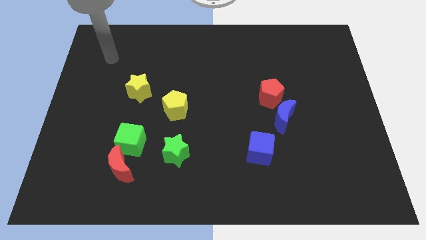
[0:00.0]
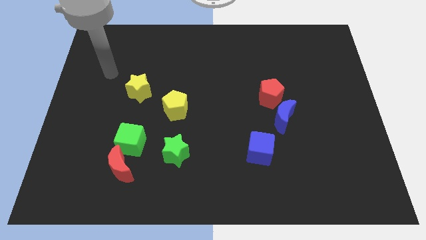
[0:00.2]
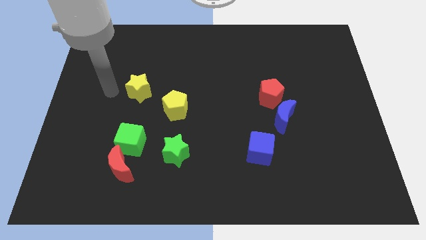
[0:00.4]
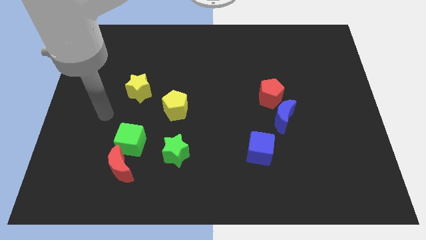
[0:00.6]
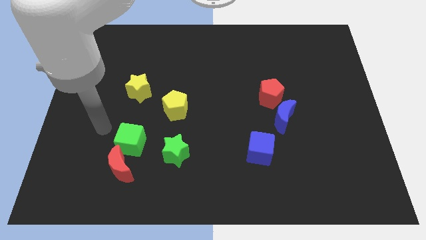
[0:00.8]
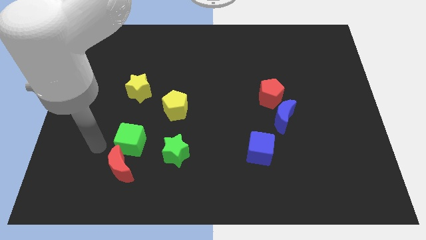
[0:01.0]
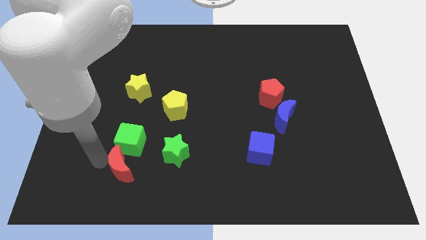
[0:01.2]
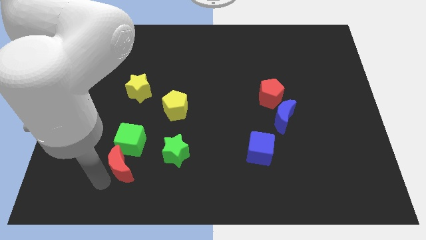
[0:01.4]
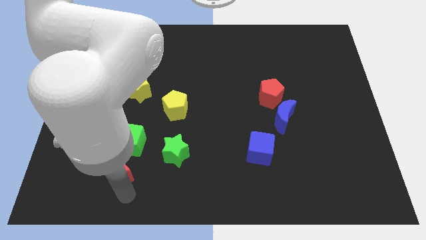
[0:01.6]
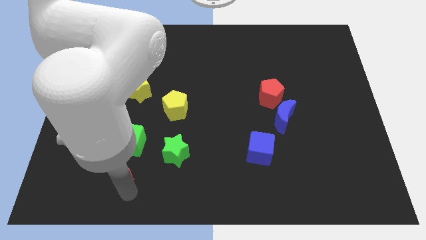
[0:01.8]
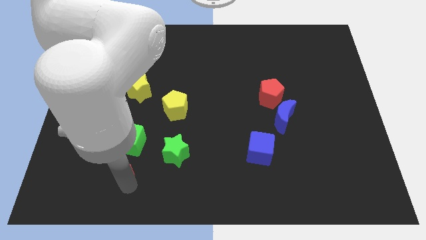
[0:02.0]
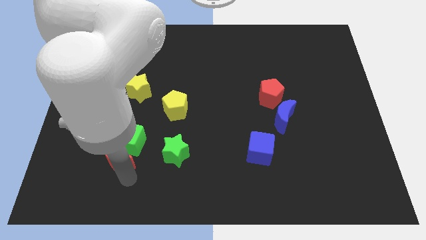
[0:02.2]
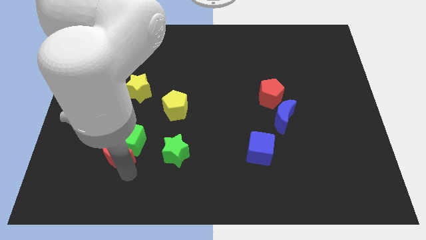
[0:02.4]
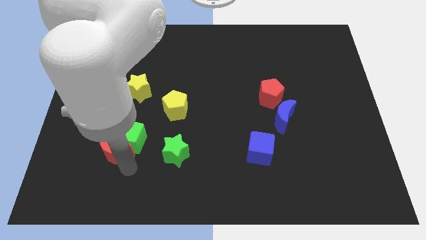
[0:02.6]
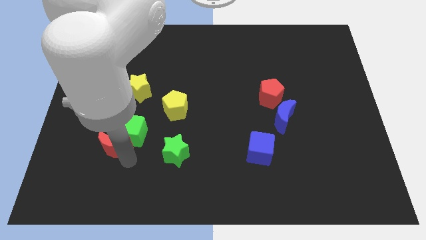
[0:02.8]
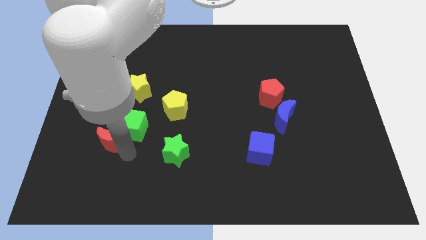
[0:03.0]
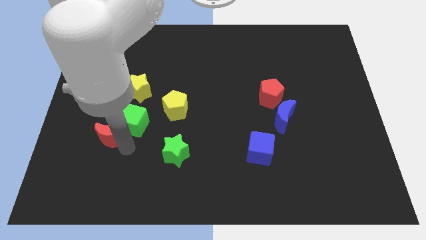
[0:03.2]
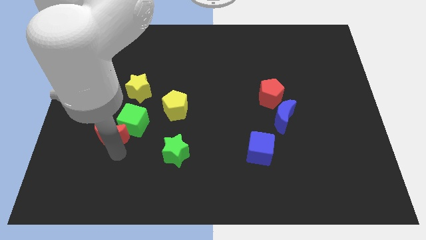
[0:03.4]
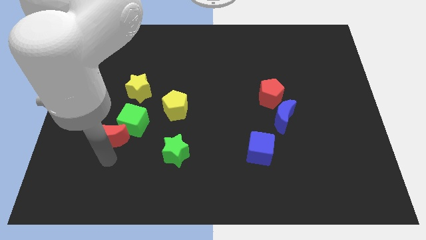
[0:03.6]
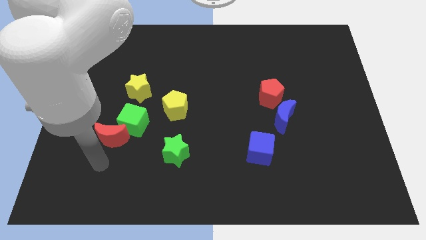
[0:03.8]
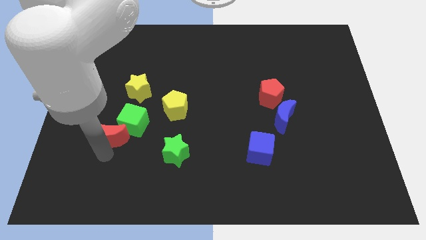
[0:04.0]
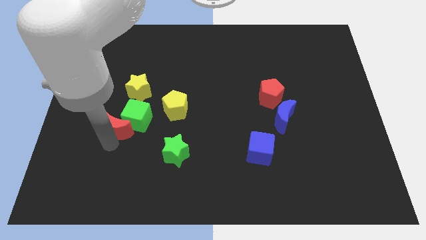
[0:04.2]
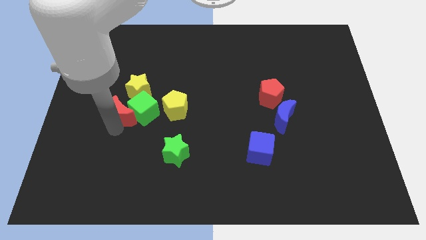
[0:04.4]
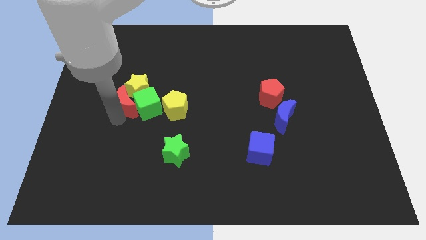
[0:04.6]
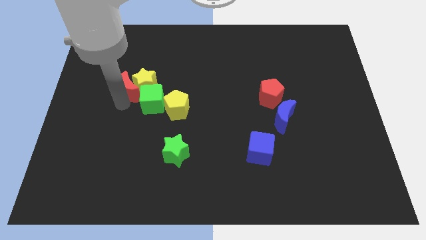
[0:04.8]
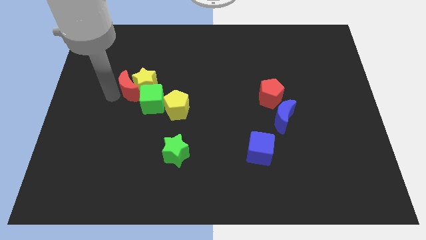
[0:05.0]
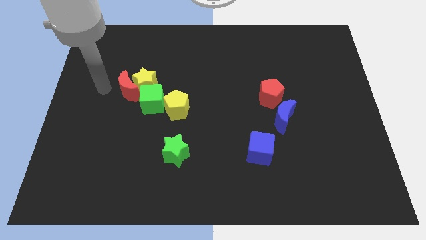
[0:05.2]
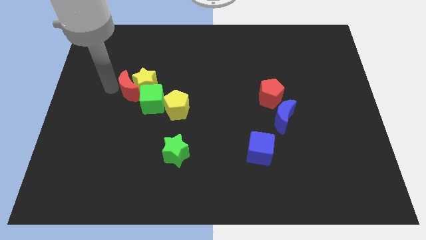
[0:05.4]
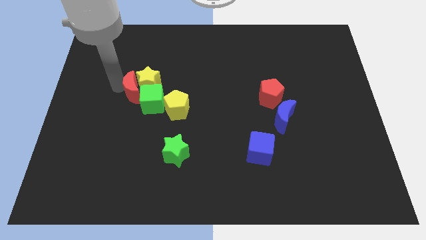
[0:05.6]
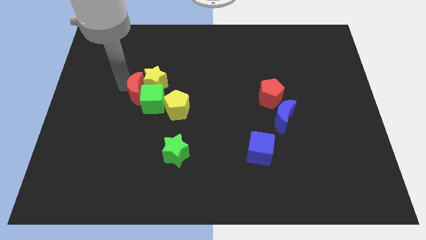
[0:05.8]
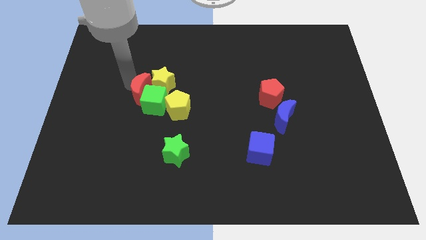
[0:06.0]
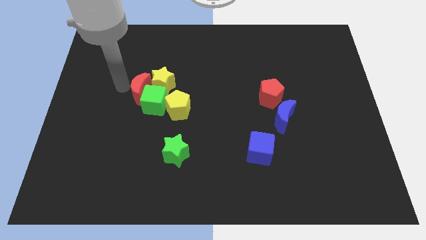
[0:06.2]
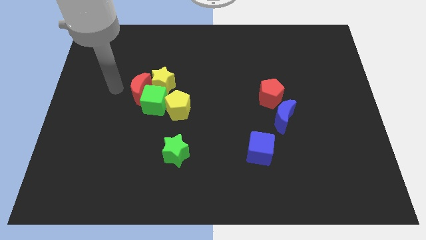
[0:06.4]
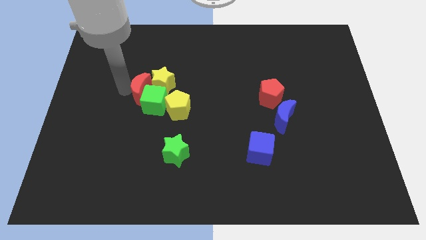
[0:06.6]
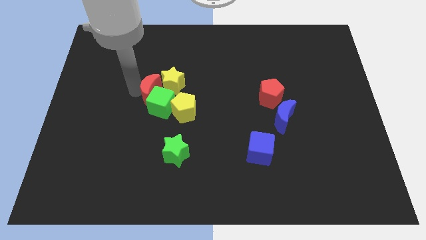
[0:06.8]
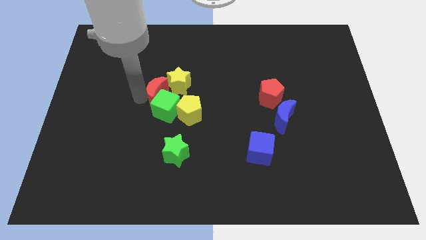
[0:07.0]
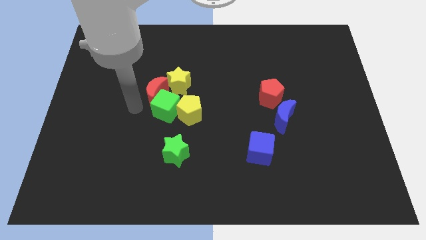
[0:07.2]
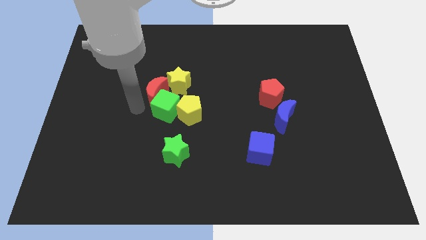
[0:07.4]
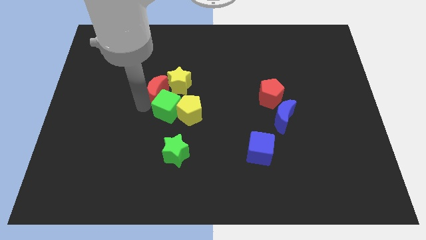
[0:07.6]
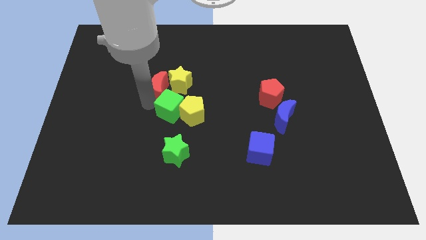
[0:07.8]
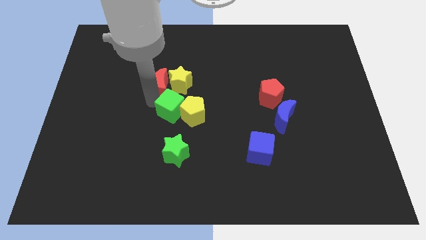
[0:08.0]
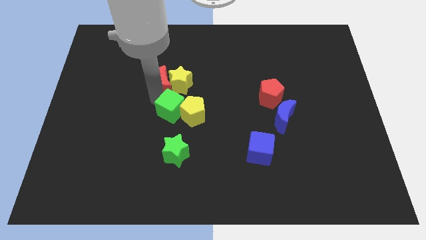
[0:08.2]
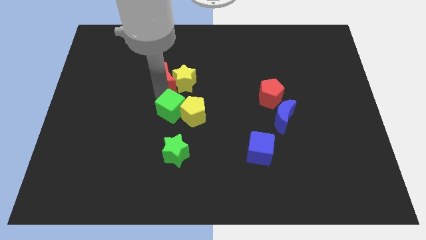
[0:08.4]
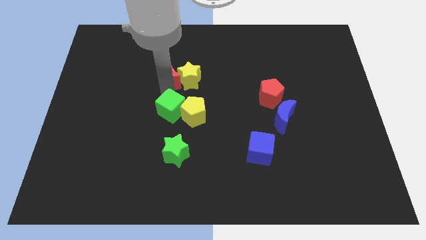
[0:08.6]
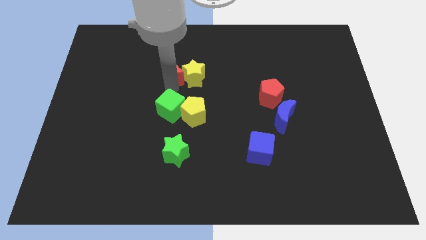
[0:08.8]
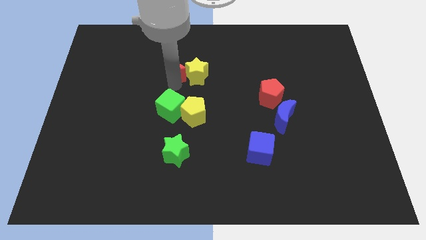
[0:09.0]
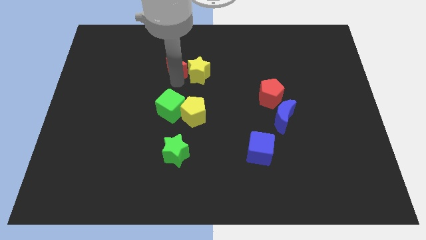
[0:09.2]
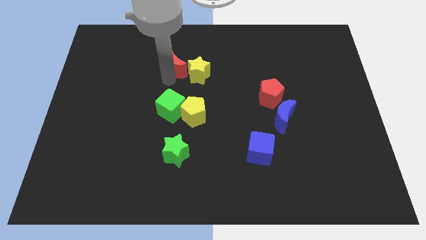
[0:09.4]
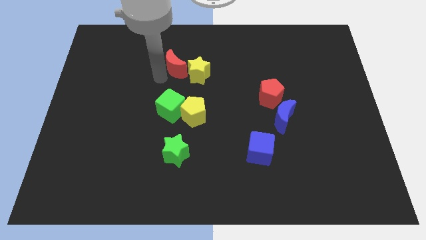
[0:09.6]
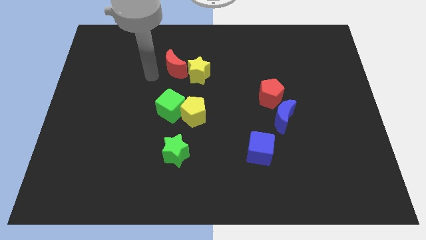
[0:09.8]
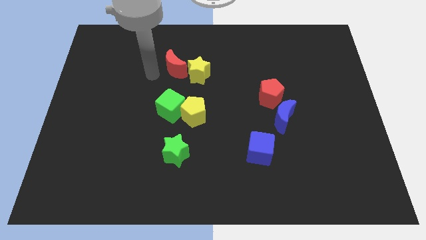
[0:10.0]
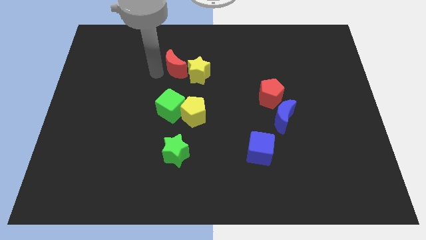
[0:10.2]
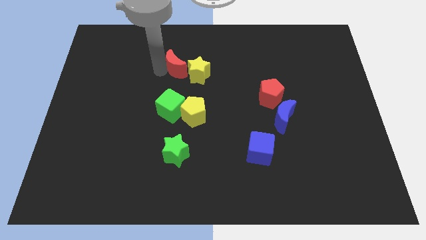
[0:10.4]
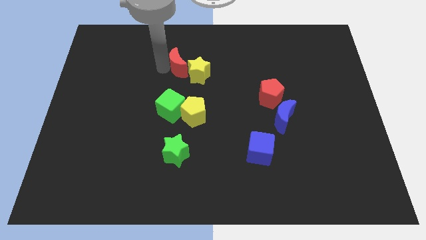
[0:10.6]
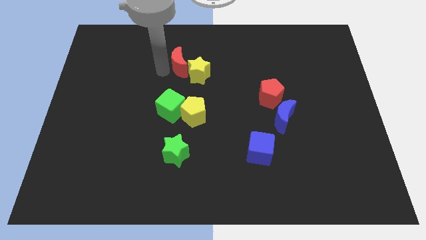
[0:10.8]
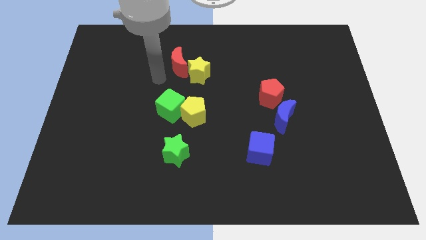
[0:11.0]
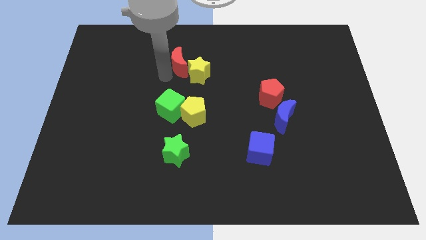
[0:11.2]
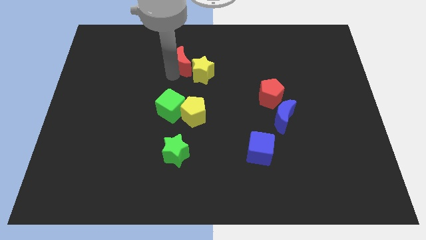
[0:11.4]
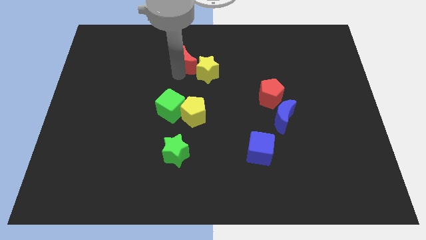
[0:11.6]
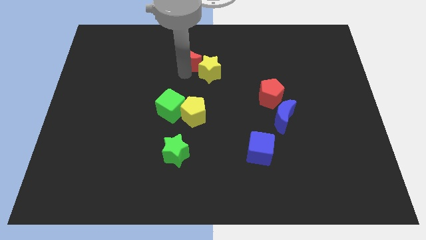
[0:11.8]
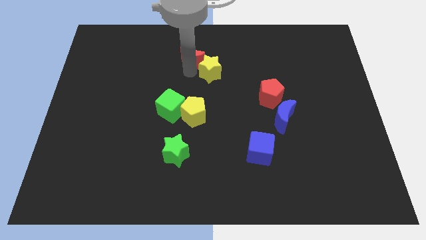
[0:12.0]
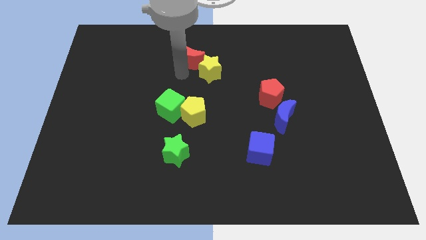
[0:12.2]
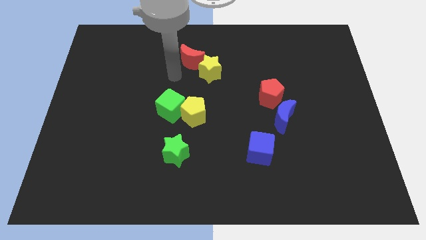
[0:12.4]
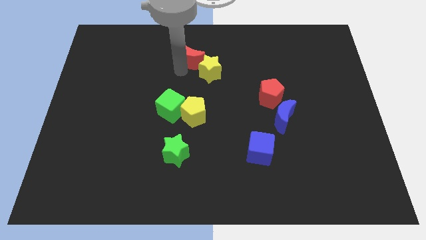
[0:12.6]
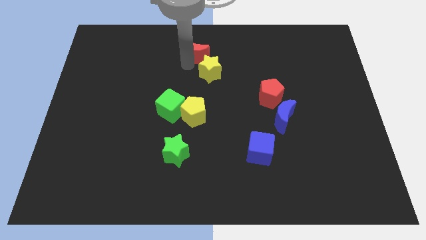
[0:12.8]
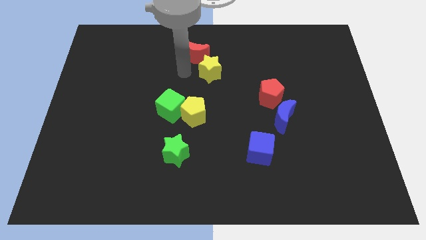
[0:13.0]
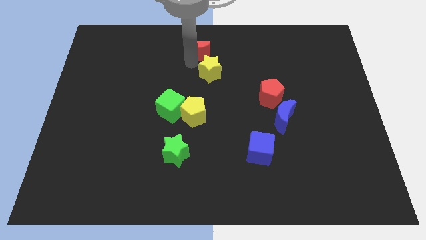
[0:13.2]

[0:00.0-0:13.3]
put the red moon to the top

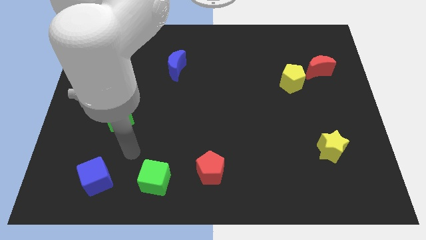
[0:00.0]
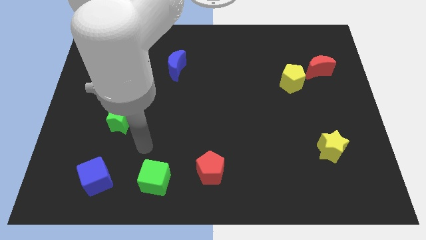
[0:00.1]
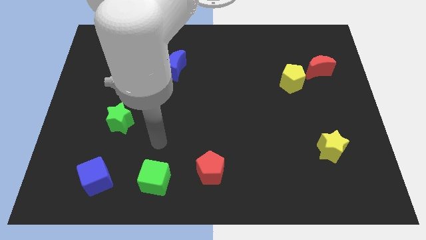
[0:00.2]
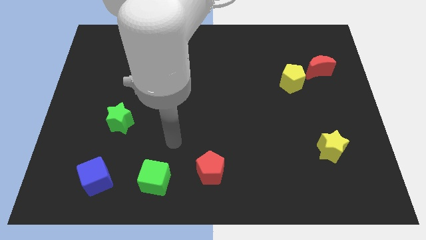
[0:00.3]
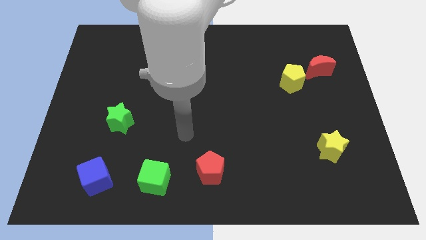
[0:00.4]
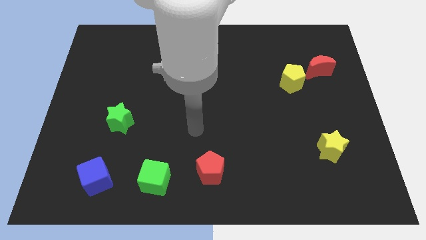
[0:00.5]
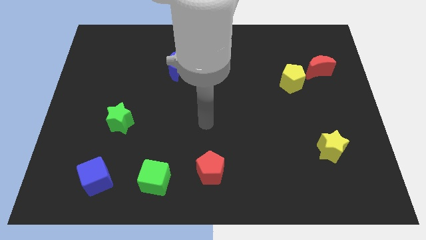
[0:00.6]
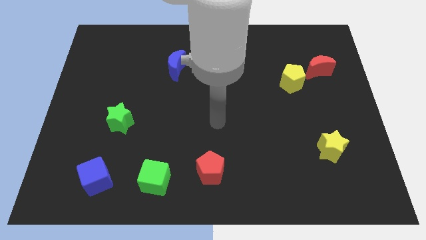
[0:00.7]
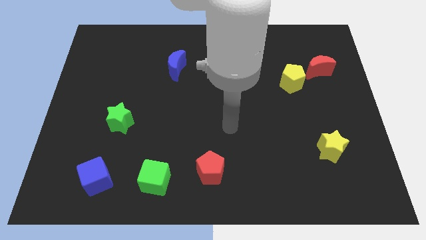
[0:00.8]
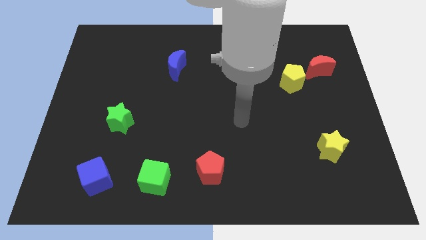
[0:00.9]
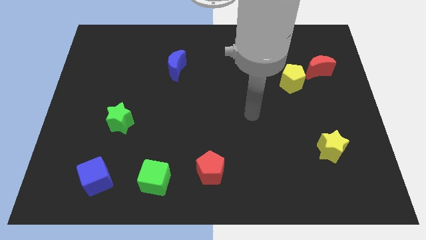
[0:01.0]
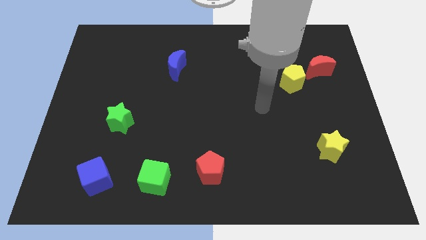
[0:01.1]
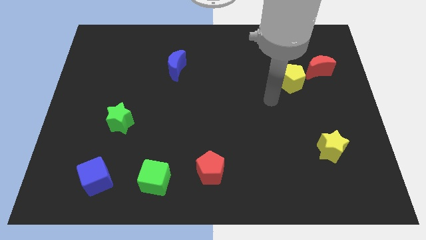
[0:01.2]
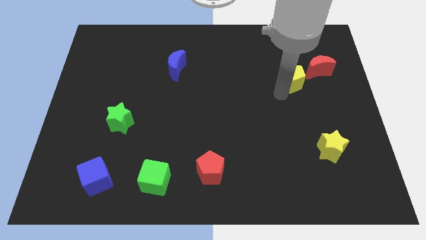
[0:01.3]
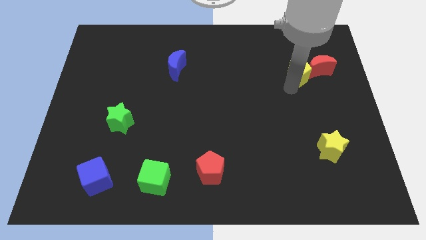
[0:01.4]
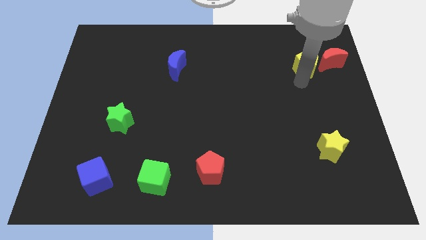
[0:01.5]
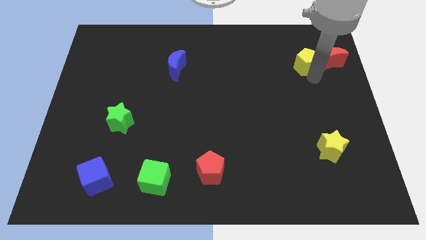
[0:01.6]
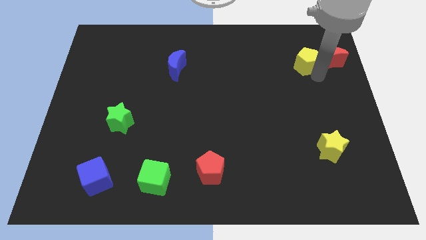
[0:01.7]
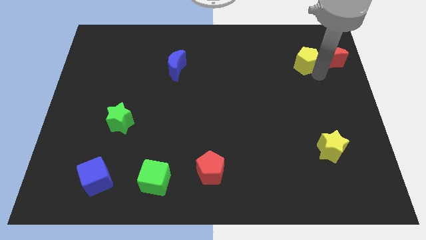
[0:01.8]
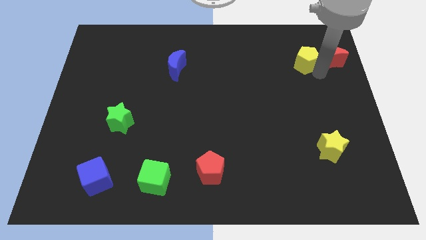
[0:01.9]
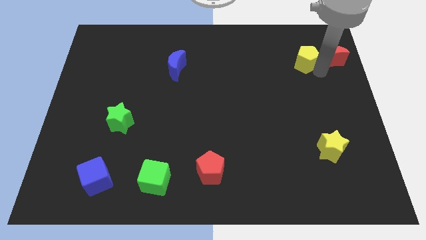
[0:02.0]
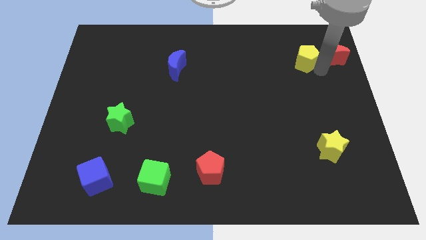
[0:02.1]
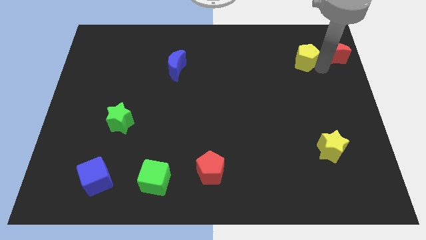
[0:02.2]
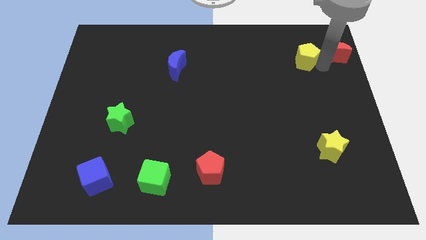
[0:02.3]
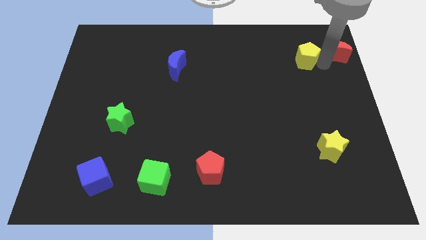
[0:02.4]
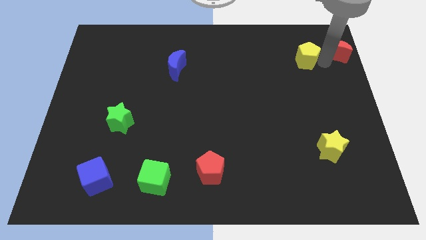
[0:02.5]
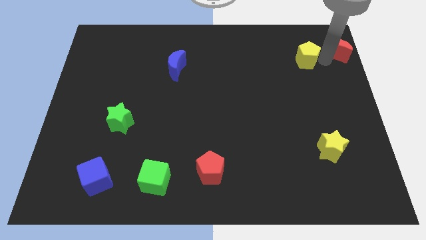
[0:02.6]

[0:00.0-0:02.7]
move the red moon to the top right corner
